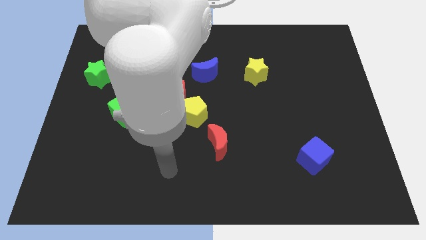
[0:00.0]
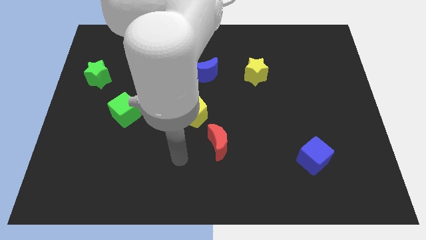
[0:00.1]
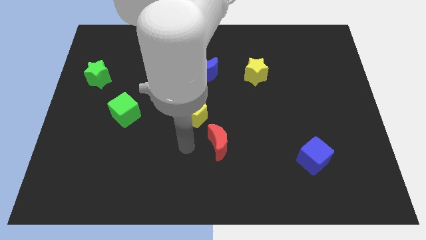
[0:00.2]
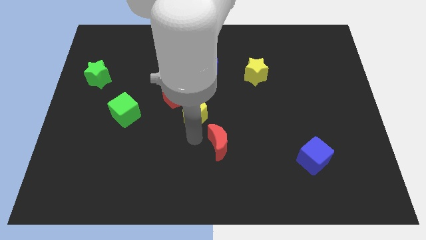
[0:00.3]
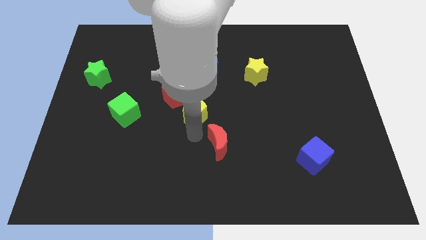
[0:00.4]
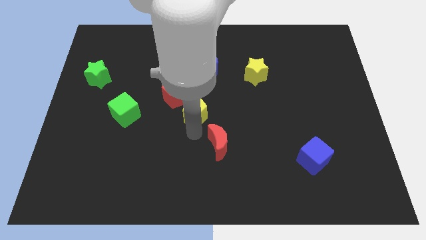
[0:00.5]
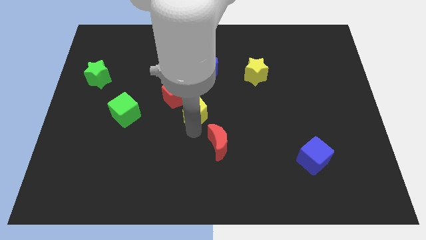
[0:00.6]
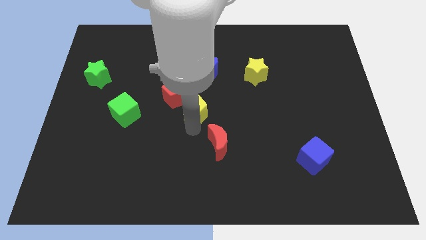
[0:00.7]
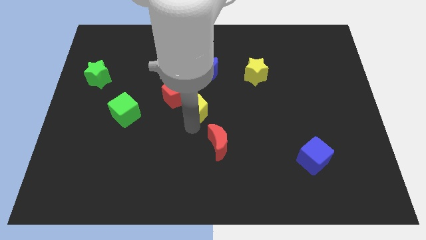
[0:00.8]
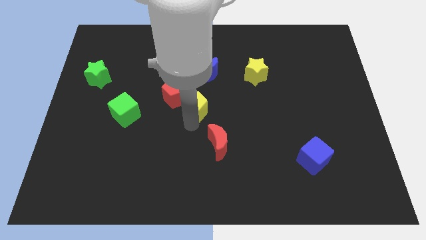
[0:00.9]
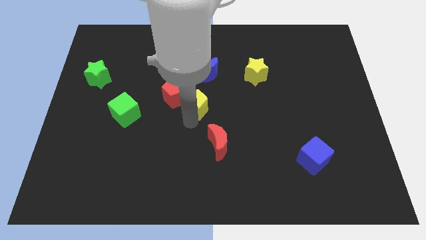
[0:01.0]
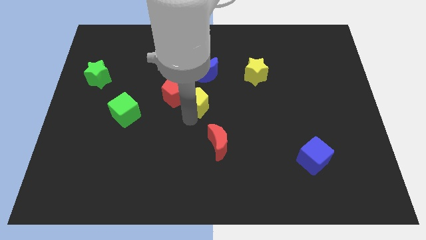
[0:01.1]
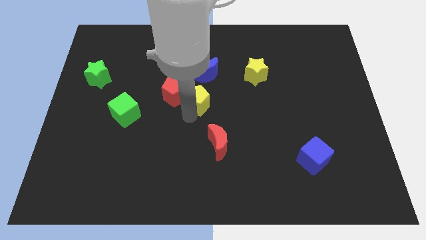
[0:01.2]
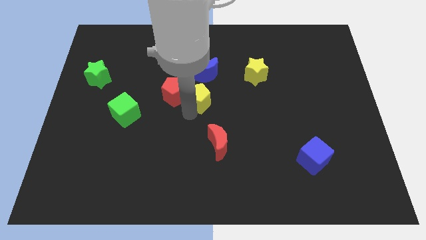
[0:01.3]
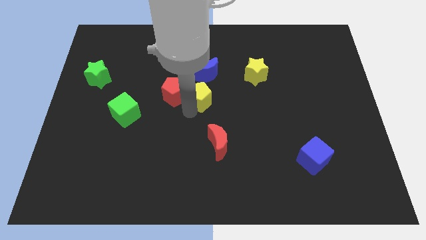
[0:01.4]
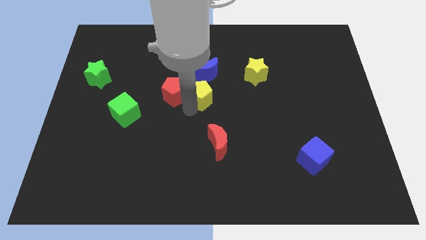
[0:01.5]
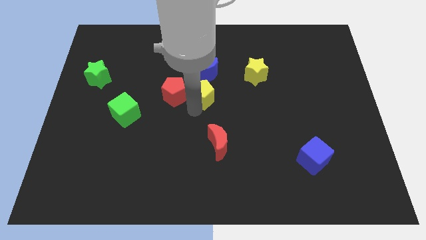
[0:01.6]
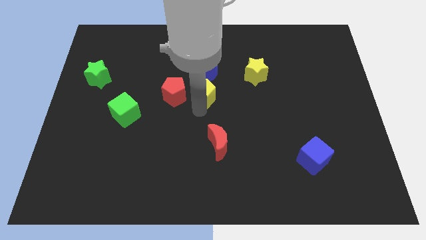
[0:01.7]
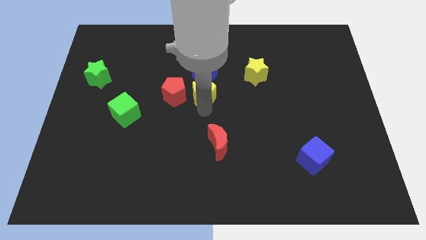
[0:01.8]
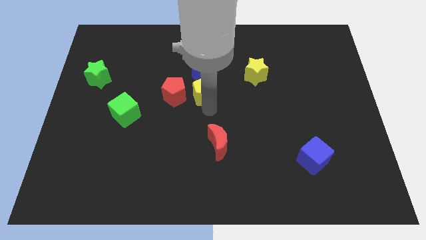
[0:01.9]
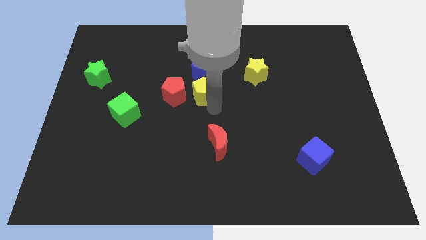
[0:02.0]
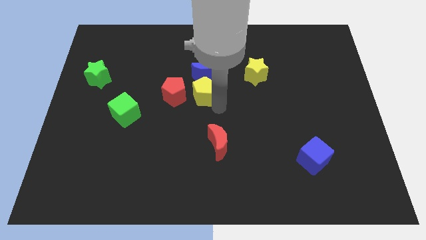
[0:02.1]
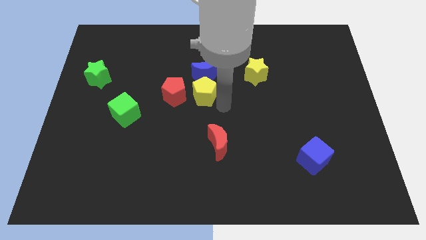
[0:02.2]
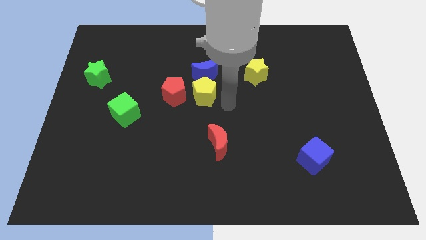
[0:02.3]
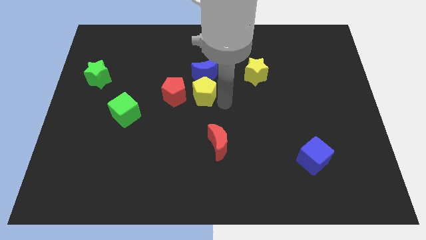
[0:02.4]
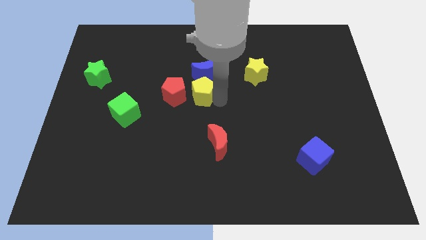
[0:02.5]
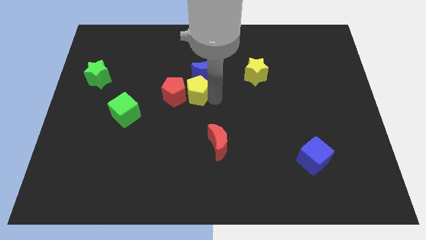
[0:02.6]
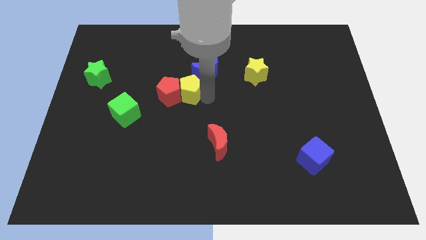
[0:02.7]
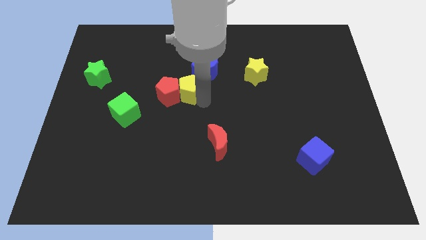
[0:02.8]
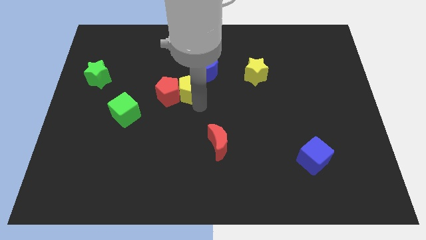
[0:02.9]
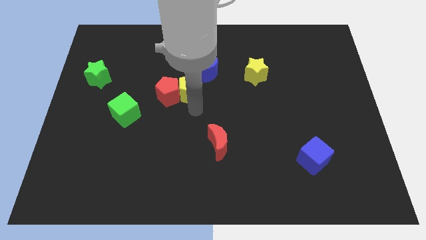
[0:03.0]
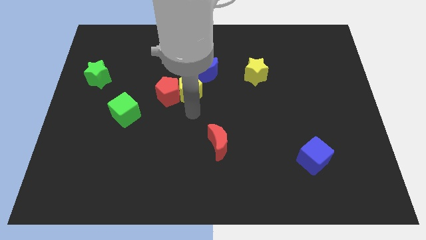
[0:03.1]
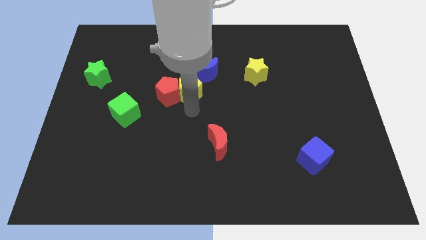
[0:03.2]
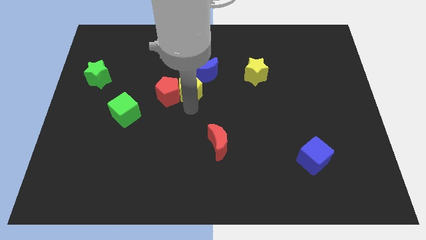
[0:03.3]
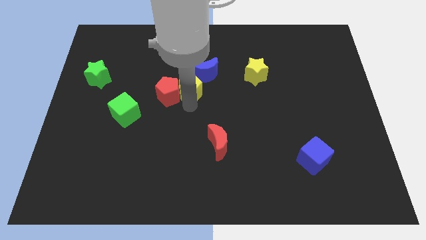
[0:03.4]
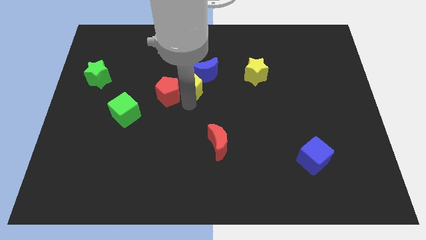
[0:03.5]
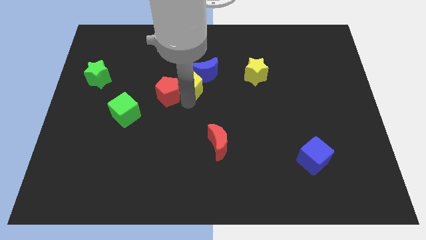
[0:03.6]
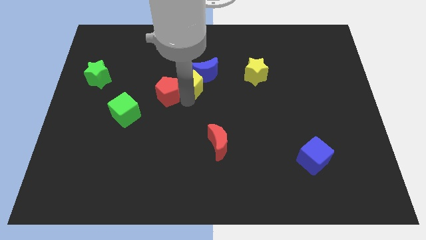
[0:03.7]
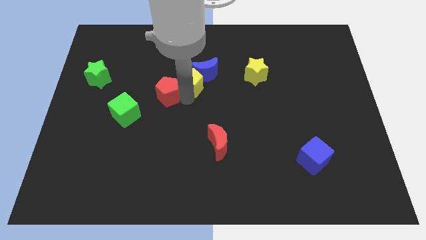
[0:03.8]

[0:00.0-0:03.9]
pull the yellow pentagon apart from the red pentagon and red moon

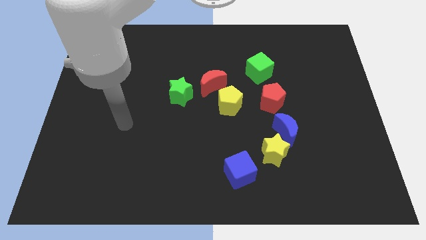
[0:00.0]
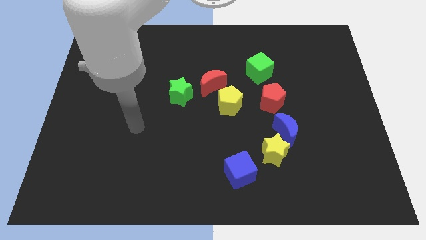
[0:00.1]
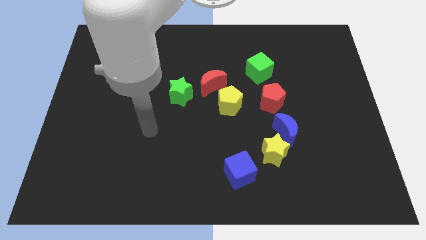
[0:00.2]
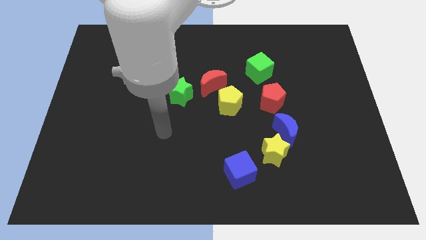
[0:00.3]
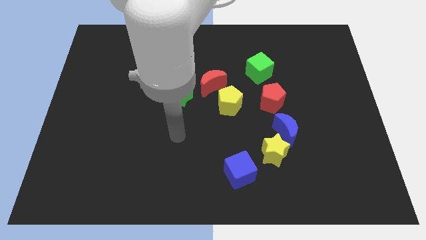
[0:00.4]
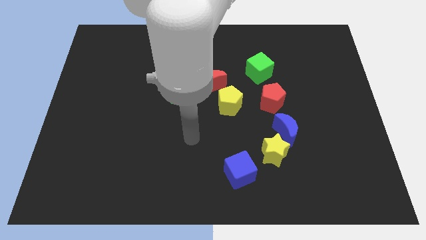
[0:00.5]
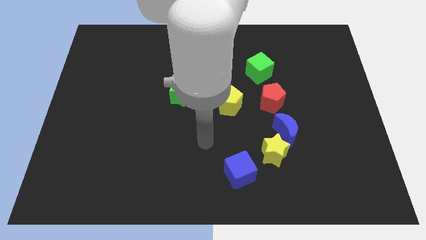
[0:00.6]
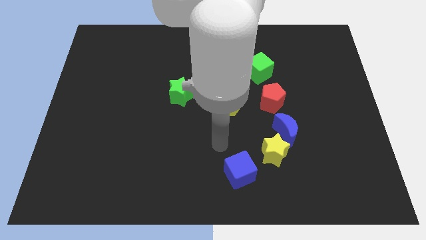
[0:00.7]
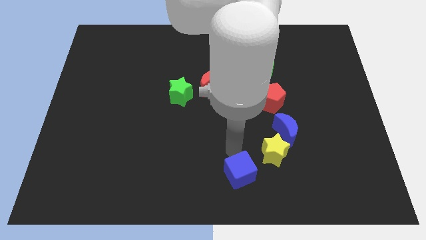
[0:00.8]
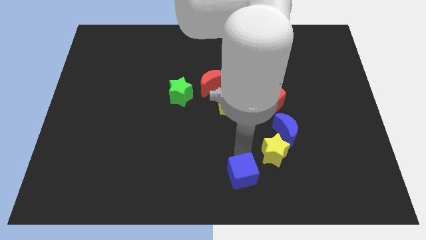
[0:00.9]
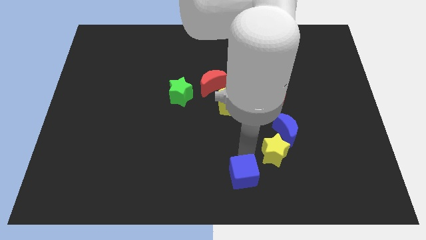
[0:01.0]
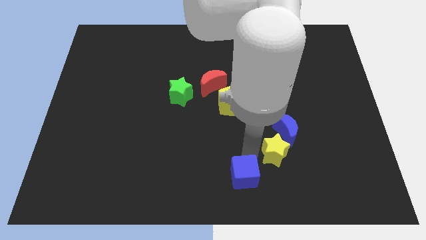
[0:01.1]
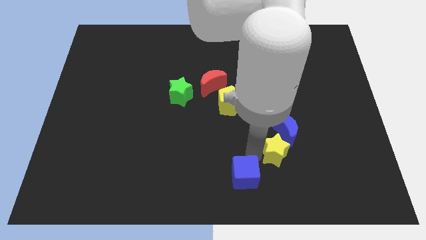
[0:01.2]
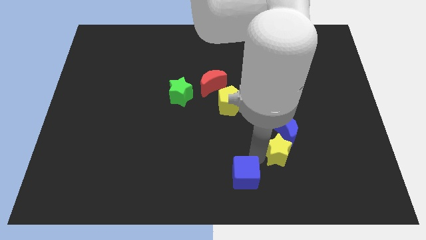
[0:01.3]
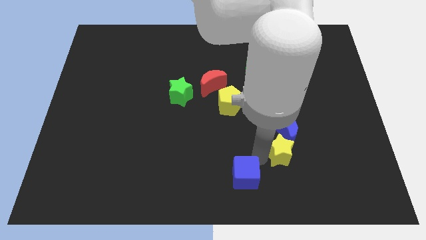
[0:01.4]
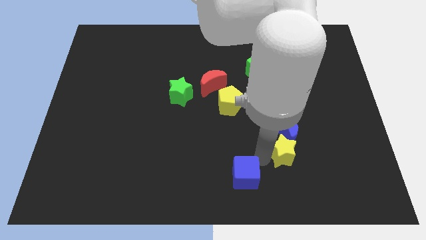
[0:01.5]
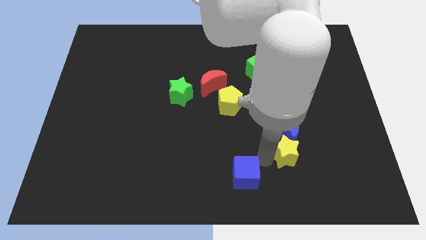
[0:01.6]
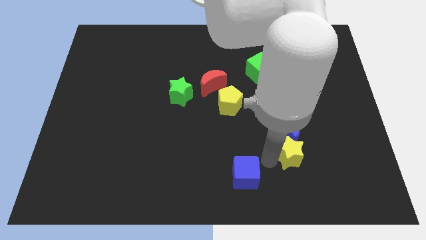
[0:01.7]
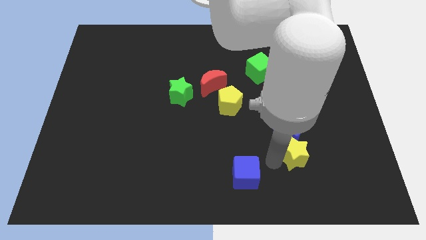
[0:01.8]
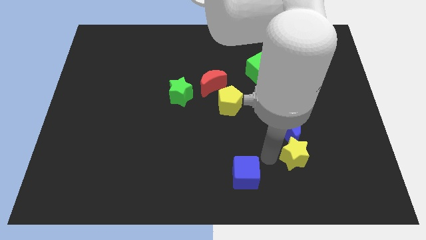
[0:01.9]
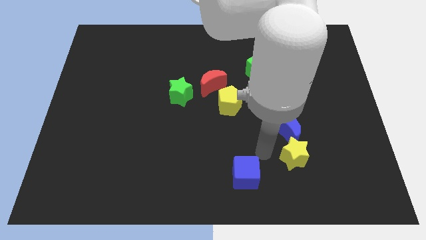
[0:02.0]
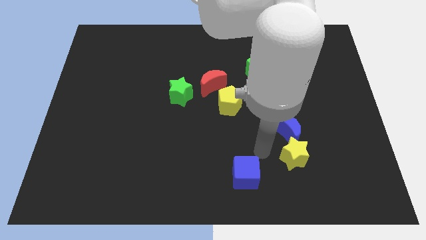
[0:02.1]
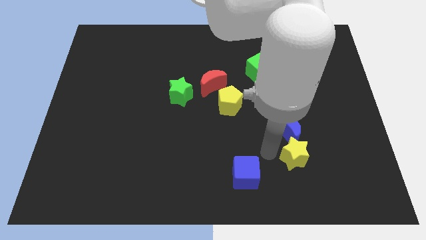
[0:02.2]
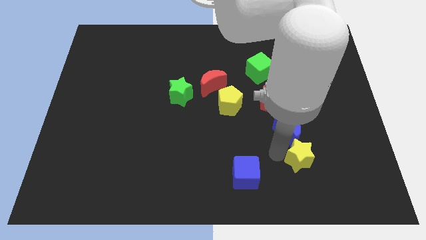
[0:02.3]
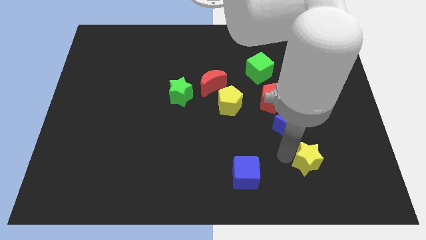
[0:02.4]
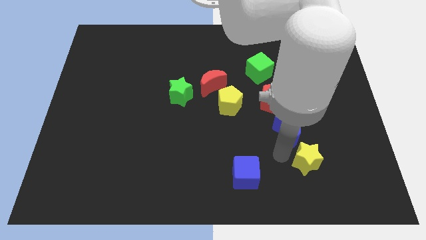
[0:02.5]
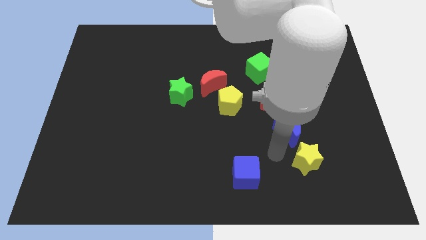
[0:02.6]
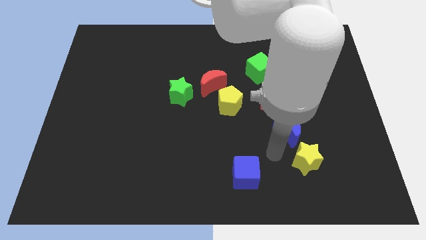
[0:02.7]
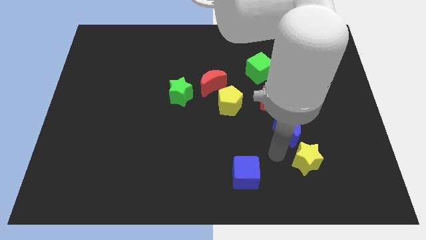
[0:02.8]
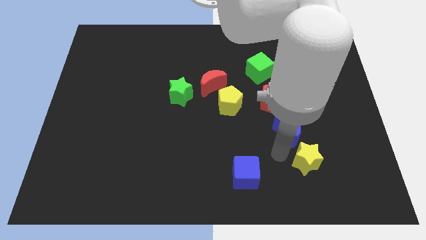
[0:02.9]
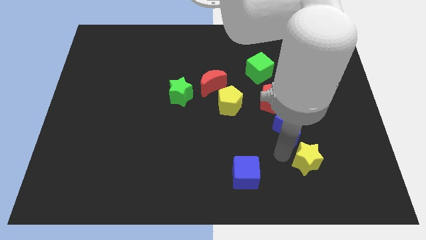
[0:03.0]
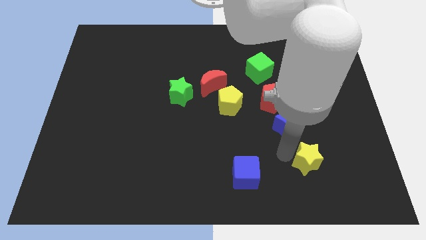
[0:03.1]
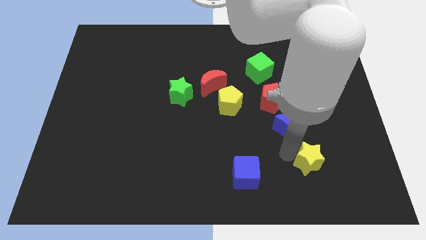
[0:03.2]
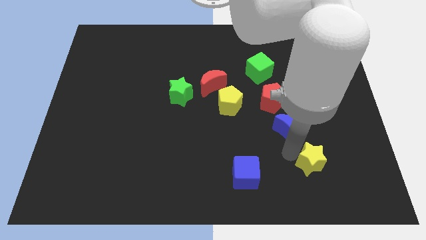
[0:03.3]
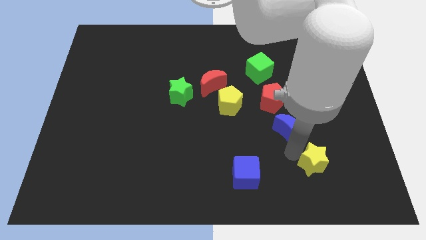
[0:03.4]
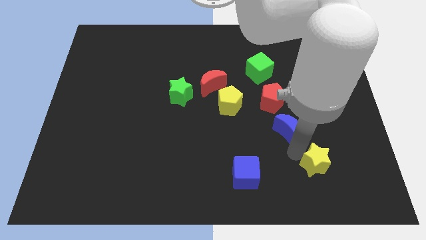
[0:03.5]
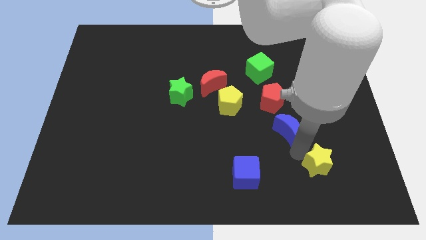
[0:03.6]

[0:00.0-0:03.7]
move the yellow star away from the blue moon and blue cube

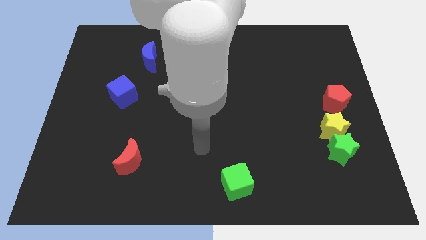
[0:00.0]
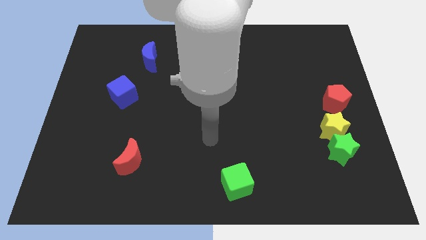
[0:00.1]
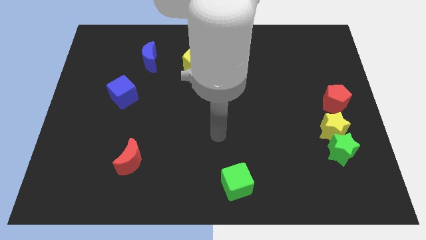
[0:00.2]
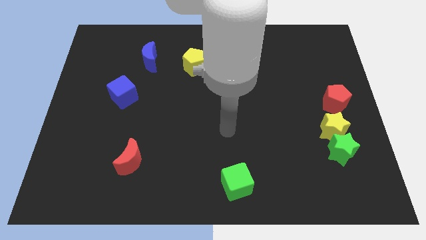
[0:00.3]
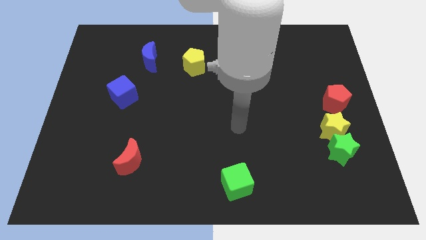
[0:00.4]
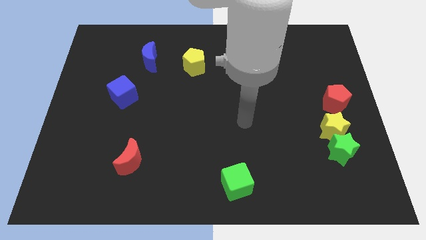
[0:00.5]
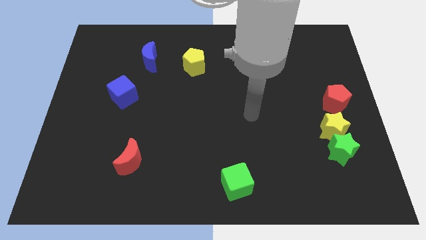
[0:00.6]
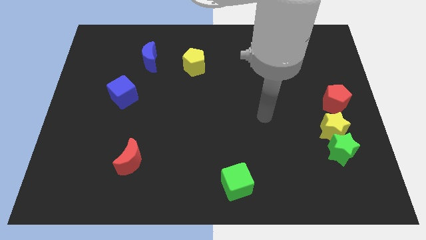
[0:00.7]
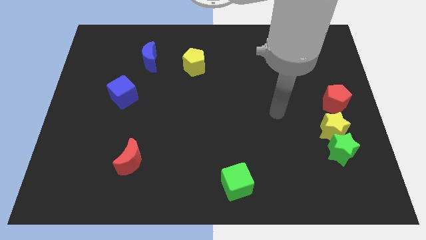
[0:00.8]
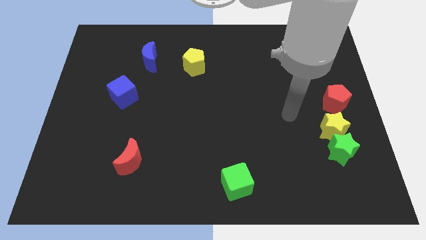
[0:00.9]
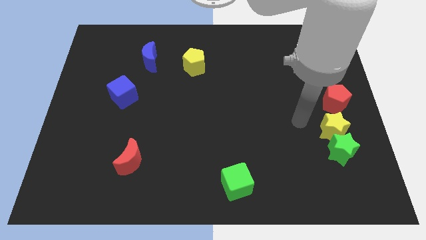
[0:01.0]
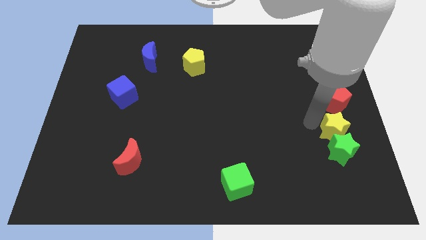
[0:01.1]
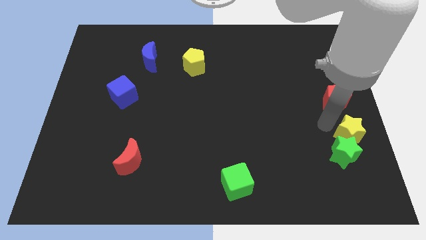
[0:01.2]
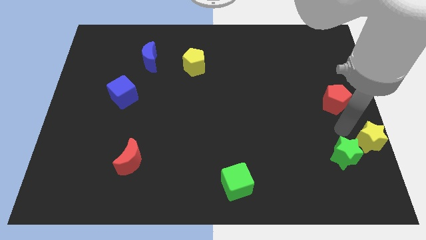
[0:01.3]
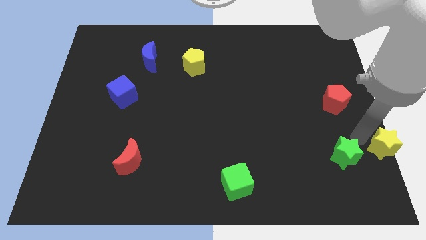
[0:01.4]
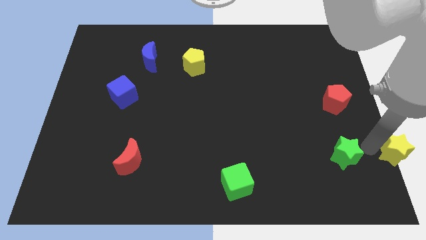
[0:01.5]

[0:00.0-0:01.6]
separate the green star from the yellow star

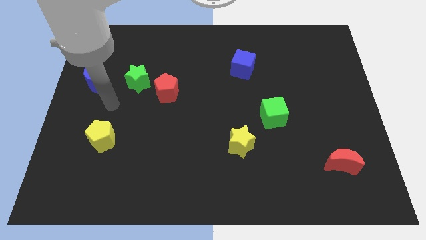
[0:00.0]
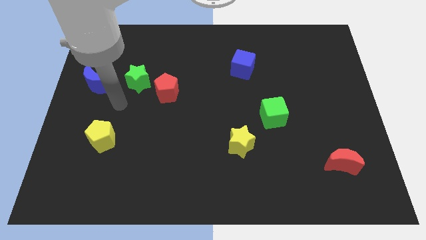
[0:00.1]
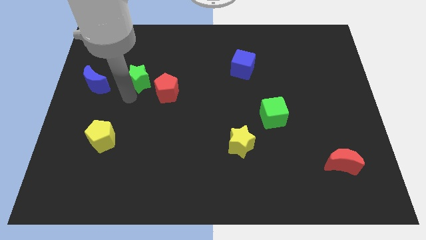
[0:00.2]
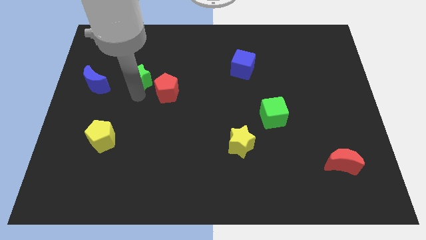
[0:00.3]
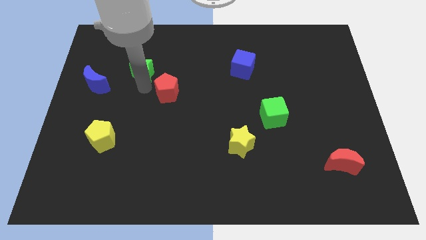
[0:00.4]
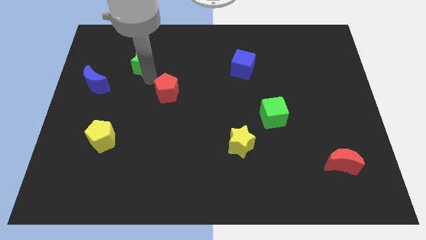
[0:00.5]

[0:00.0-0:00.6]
move the red pentagon away from the green star
